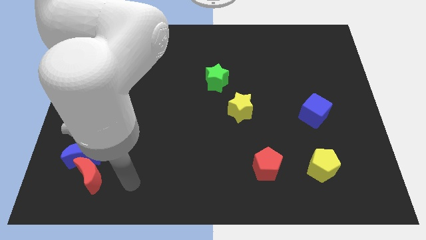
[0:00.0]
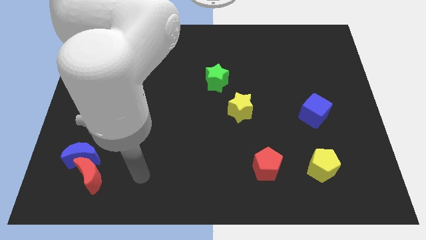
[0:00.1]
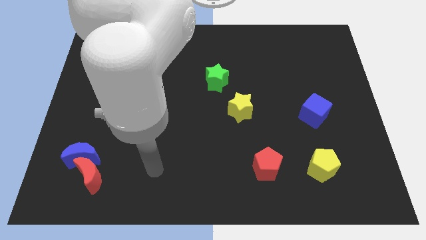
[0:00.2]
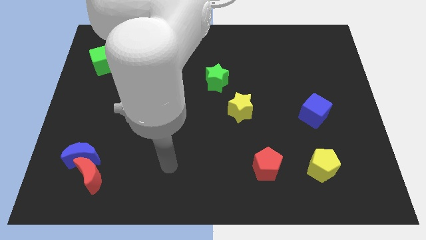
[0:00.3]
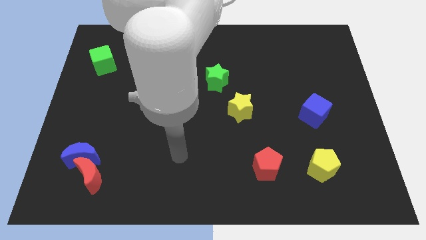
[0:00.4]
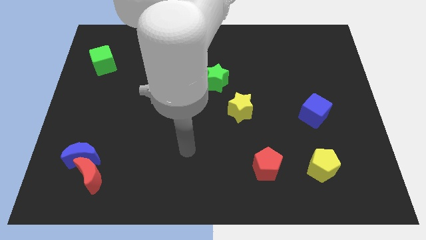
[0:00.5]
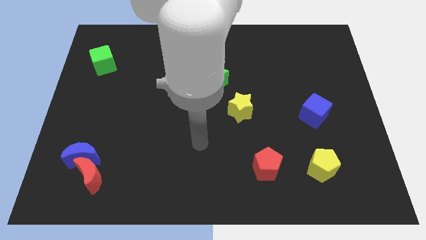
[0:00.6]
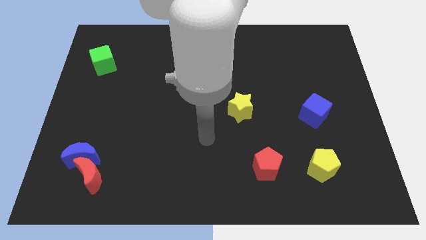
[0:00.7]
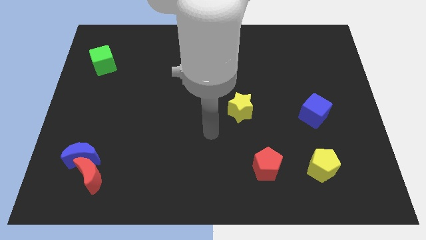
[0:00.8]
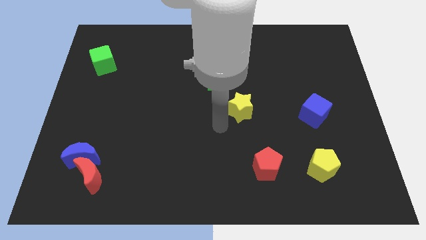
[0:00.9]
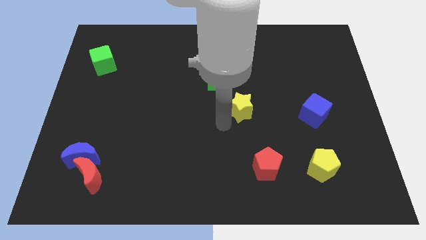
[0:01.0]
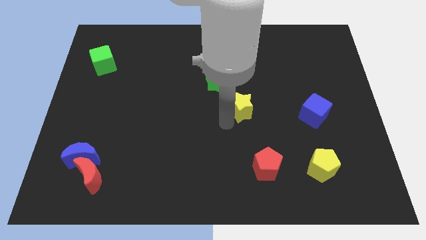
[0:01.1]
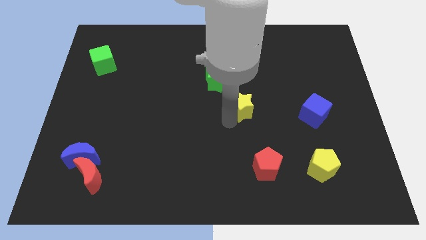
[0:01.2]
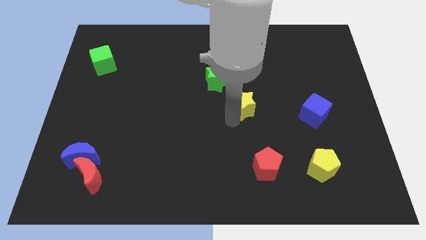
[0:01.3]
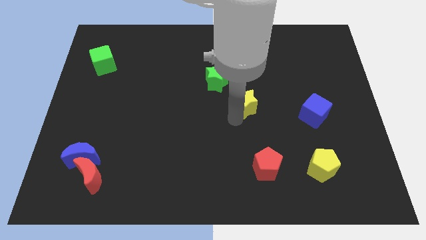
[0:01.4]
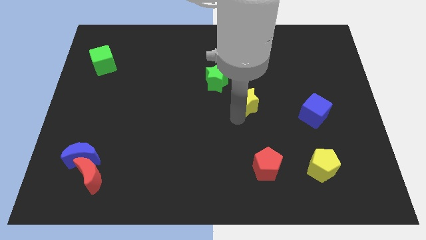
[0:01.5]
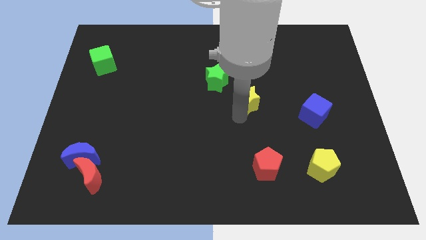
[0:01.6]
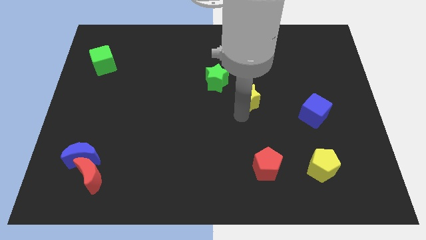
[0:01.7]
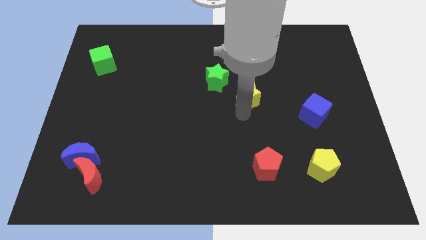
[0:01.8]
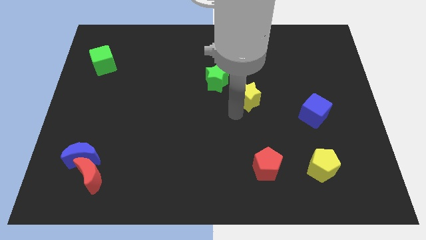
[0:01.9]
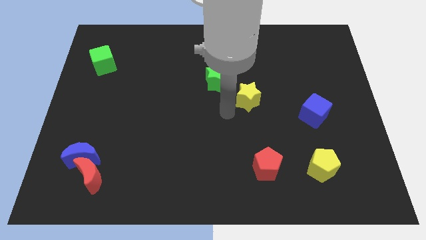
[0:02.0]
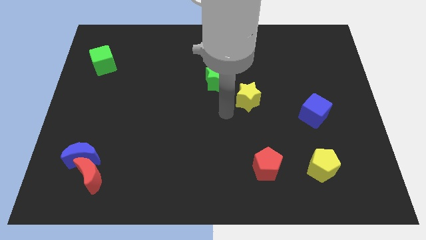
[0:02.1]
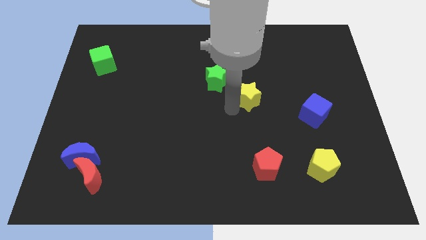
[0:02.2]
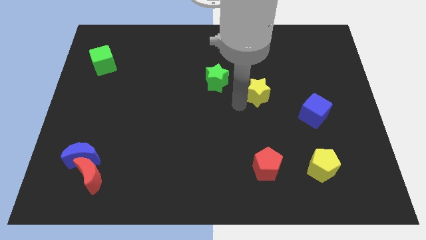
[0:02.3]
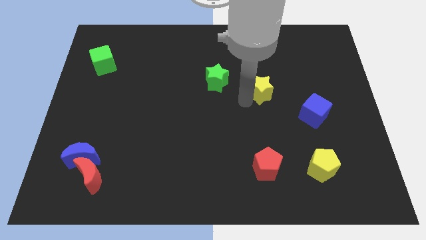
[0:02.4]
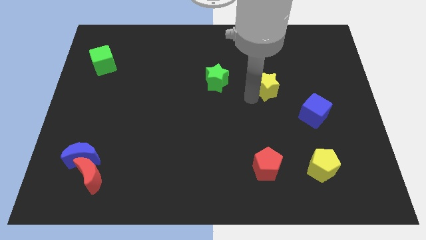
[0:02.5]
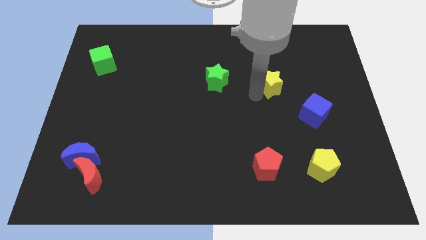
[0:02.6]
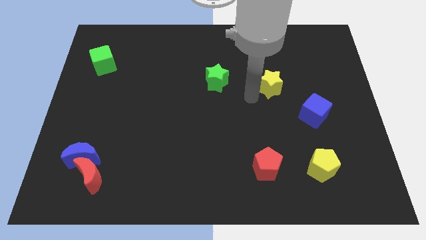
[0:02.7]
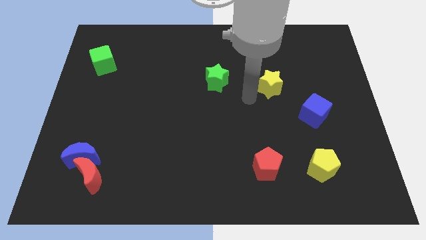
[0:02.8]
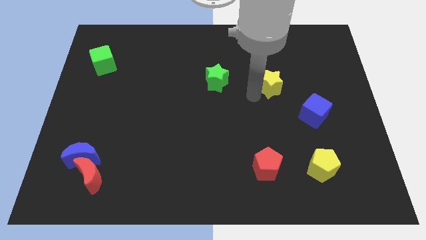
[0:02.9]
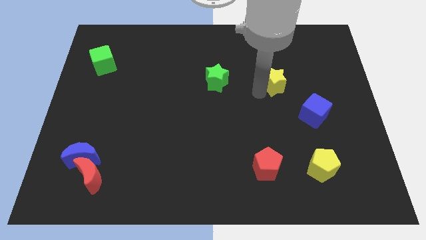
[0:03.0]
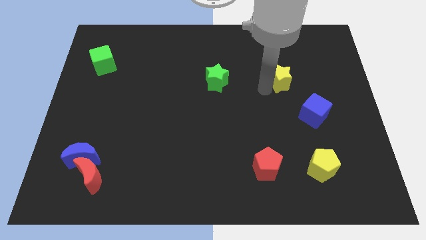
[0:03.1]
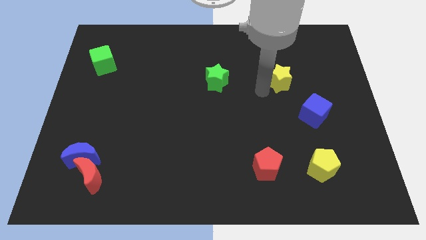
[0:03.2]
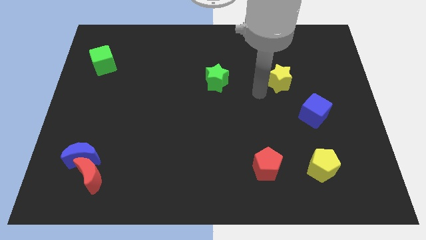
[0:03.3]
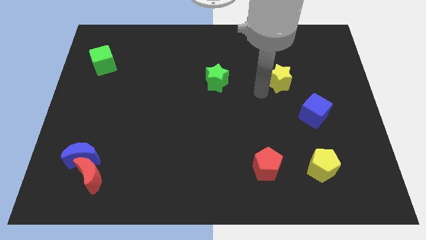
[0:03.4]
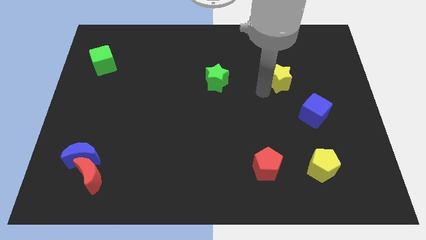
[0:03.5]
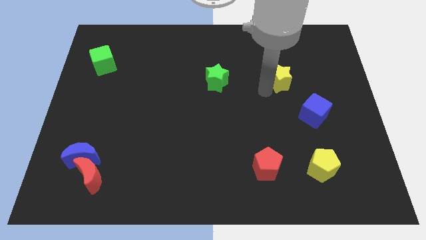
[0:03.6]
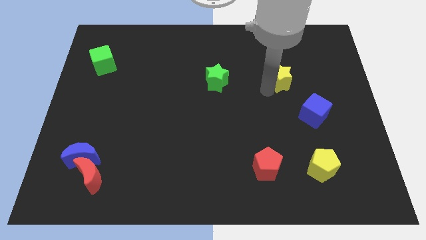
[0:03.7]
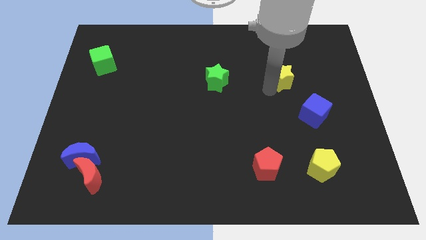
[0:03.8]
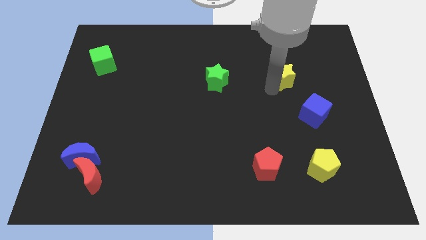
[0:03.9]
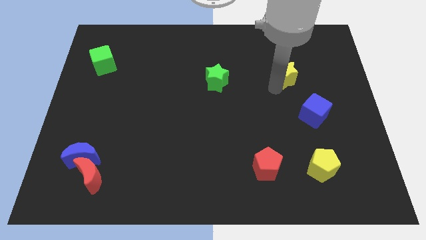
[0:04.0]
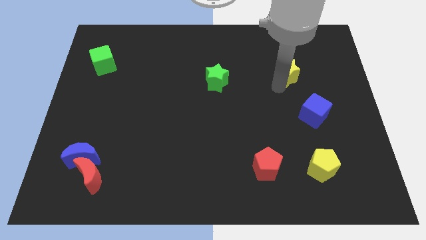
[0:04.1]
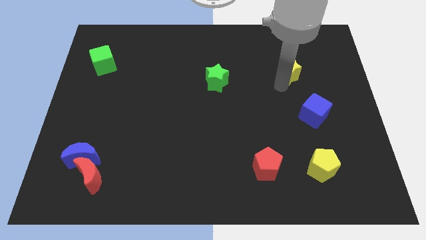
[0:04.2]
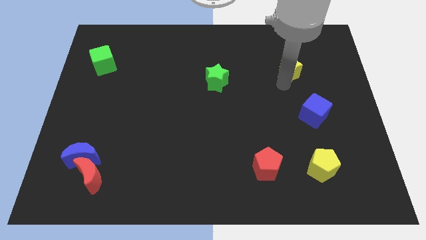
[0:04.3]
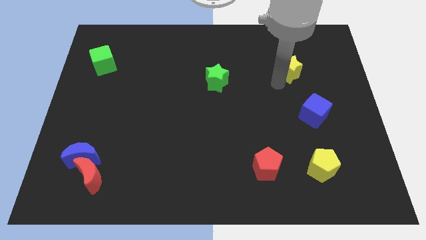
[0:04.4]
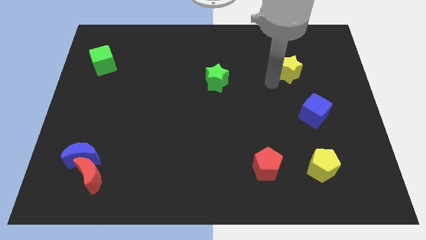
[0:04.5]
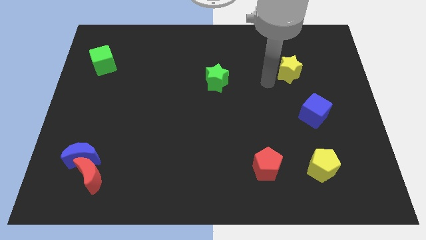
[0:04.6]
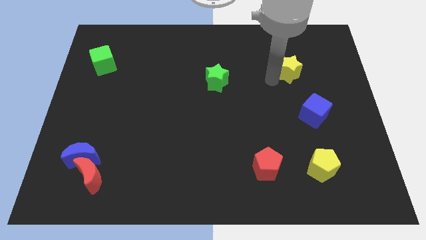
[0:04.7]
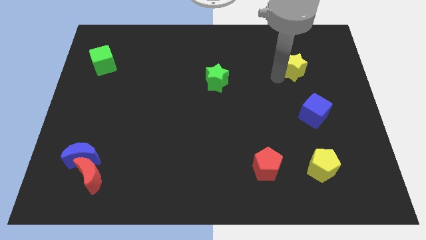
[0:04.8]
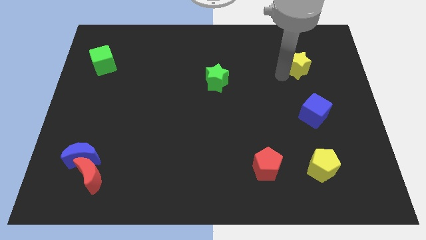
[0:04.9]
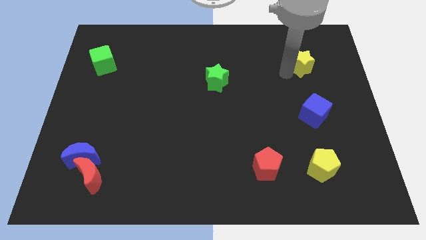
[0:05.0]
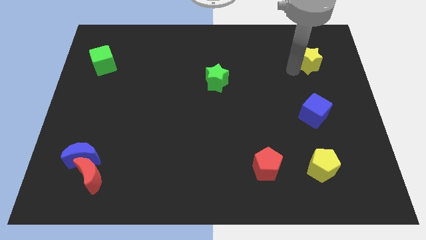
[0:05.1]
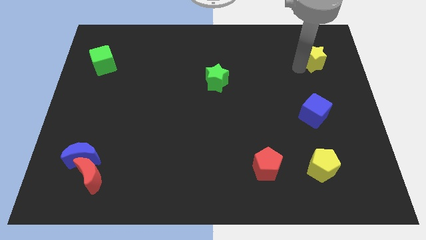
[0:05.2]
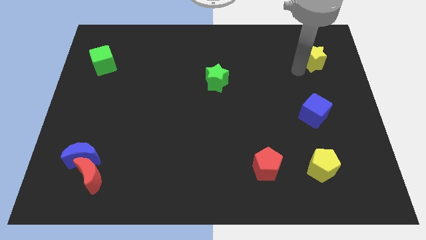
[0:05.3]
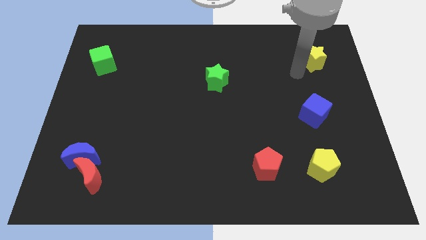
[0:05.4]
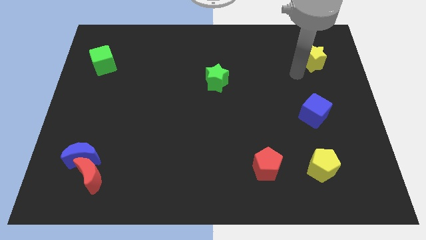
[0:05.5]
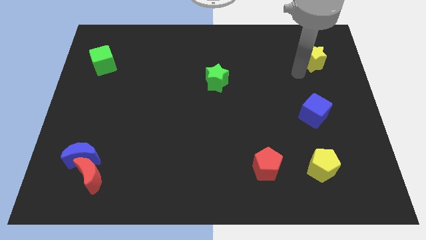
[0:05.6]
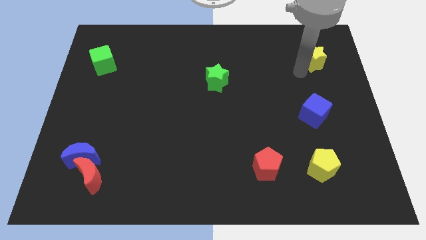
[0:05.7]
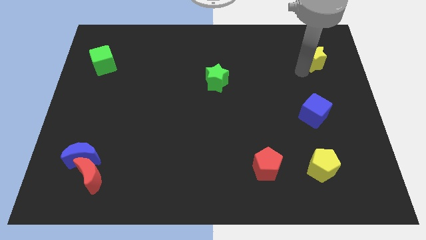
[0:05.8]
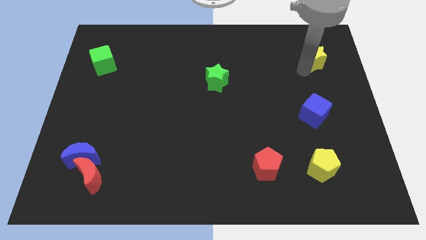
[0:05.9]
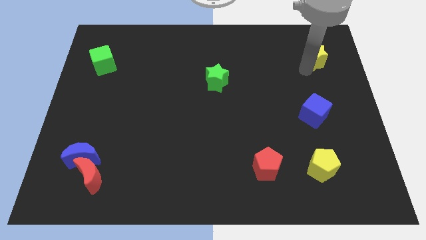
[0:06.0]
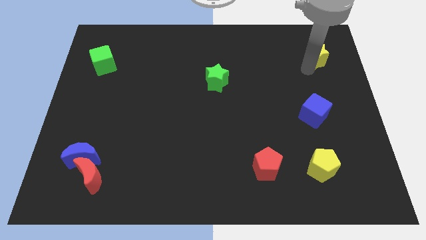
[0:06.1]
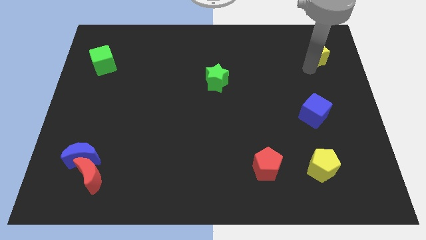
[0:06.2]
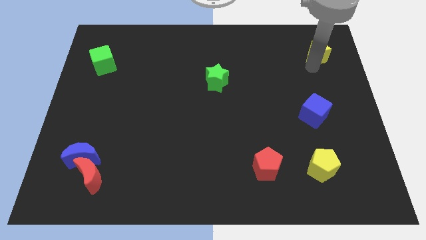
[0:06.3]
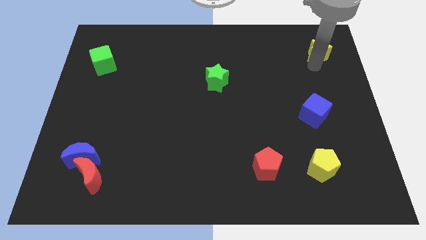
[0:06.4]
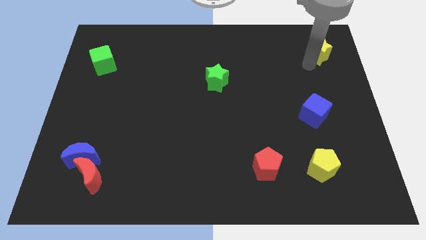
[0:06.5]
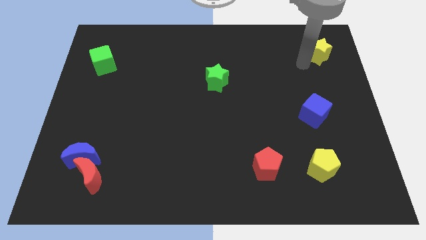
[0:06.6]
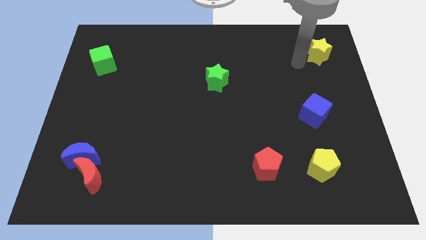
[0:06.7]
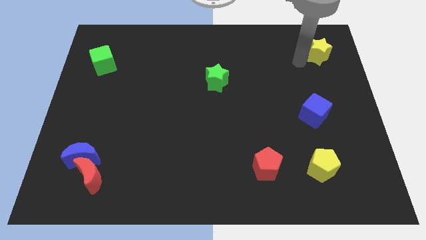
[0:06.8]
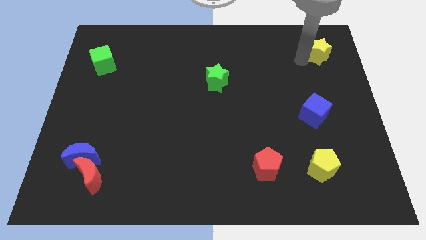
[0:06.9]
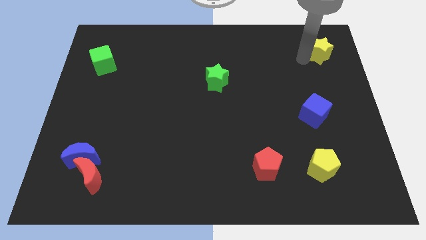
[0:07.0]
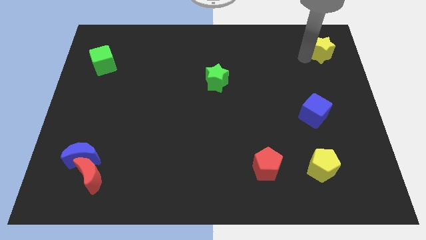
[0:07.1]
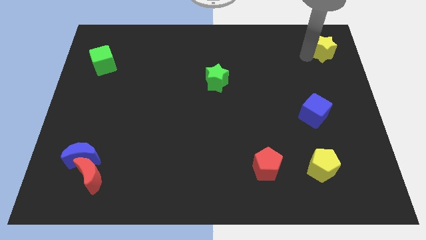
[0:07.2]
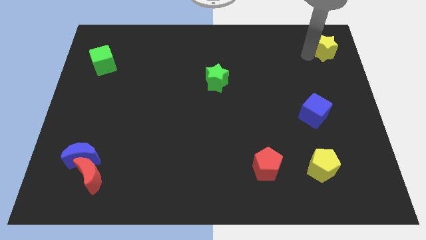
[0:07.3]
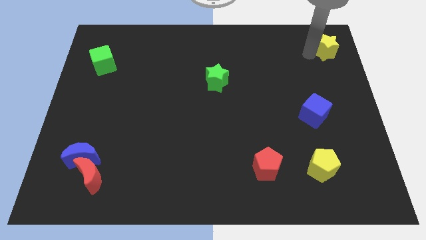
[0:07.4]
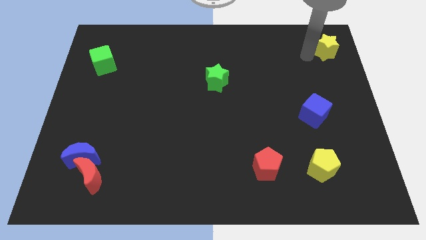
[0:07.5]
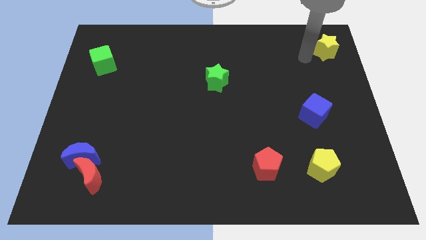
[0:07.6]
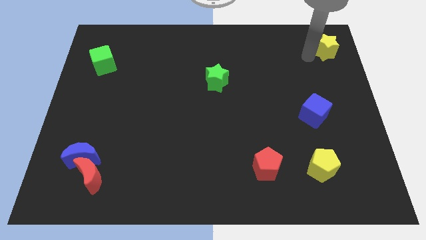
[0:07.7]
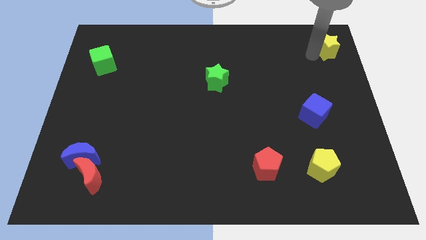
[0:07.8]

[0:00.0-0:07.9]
push the yellow star to the upper right corner
